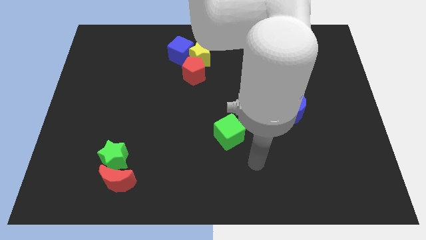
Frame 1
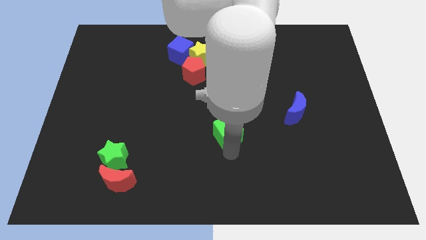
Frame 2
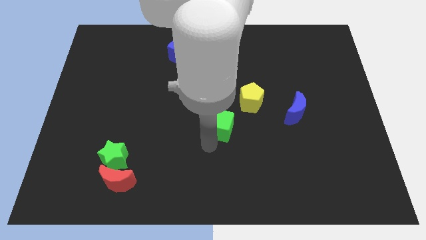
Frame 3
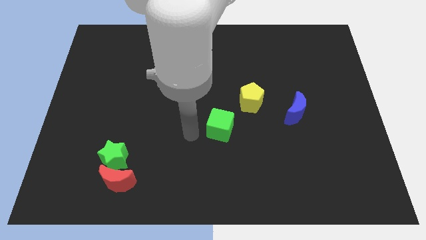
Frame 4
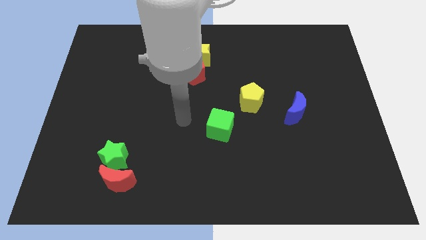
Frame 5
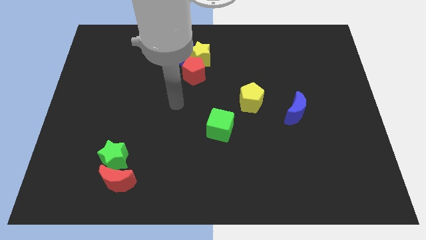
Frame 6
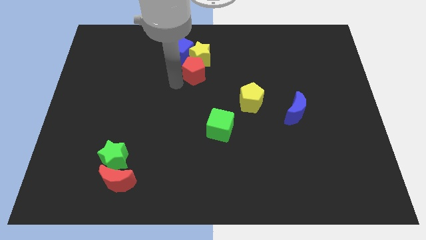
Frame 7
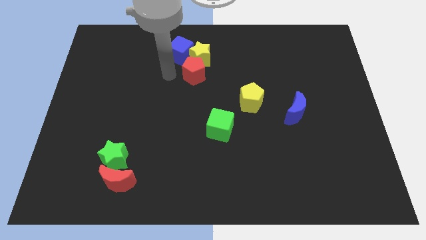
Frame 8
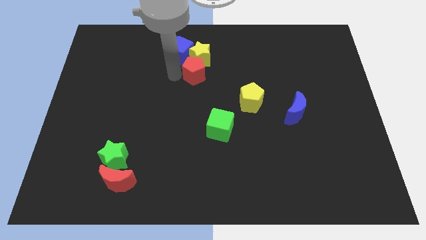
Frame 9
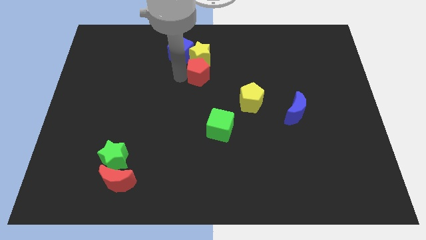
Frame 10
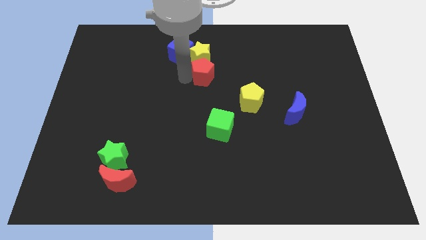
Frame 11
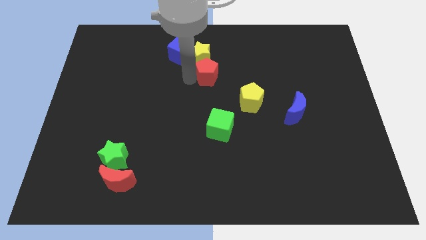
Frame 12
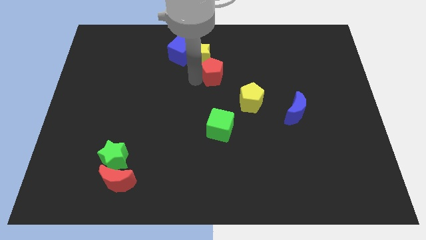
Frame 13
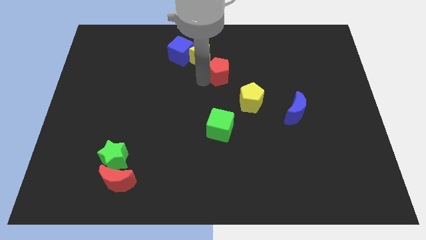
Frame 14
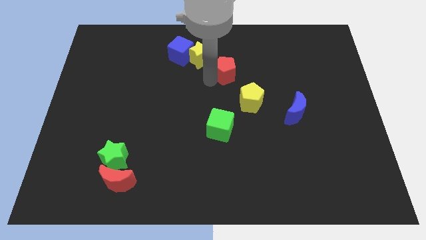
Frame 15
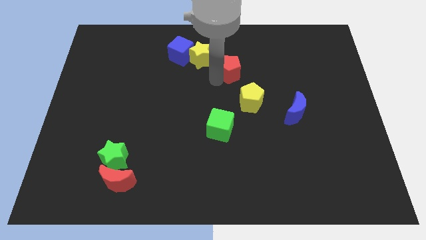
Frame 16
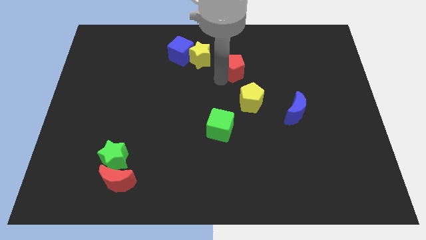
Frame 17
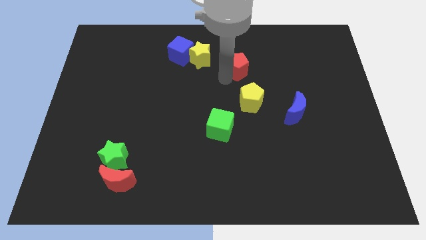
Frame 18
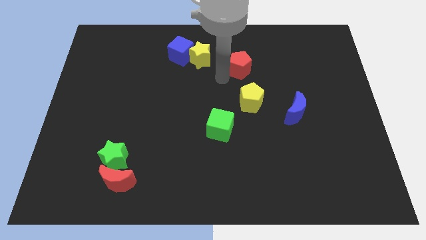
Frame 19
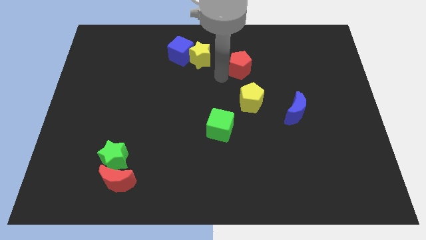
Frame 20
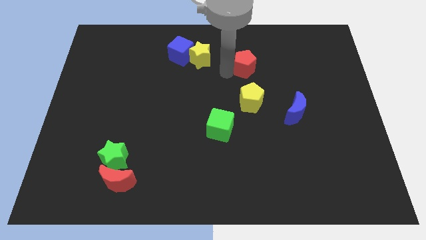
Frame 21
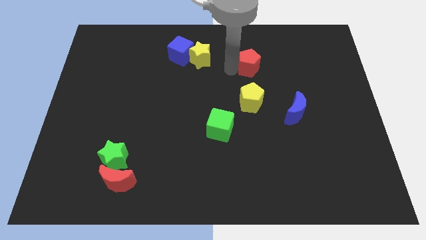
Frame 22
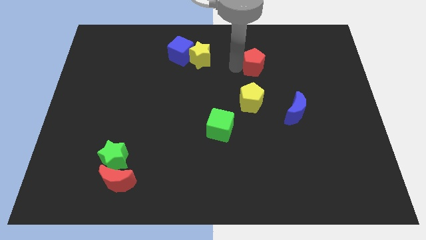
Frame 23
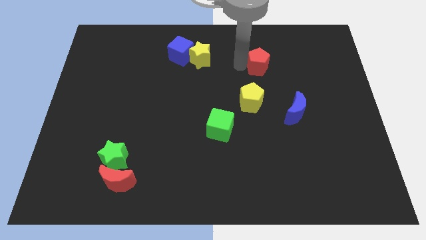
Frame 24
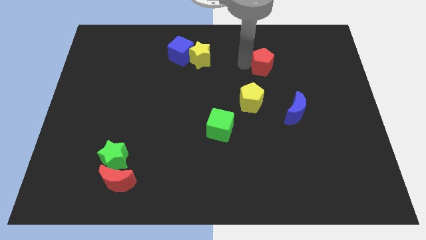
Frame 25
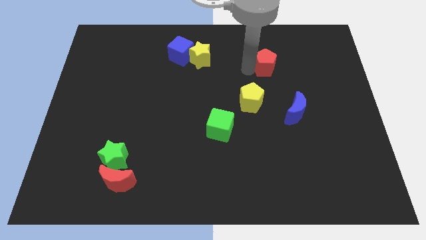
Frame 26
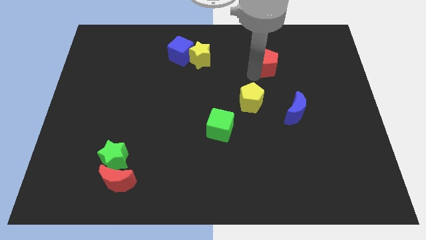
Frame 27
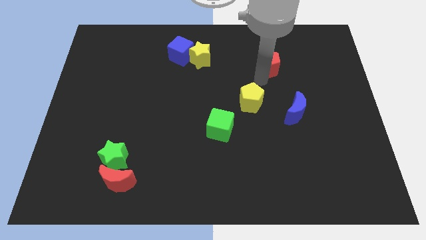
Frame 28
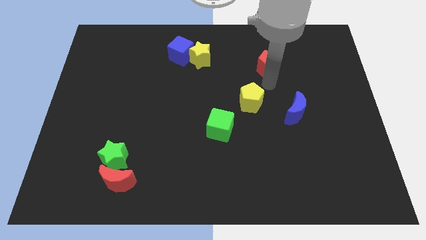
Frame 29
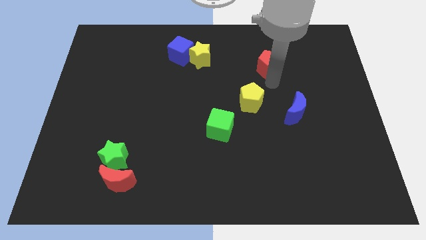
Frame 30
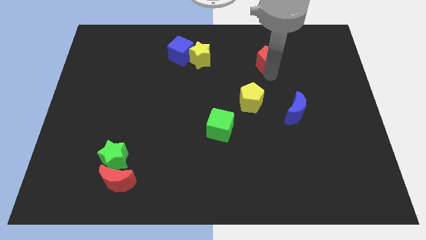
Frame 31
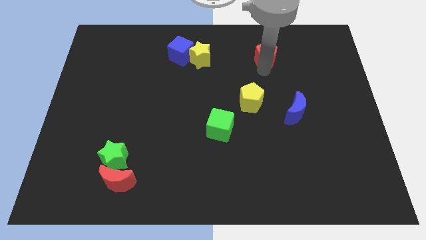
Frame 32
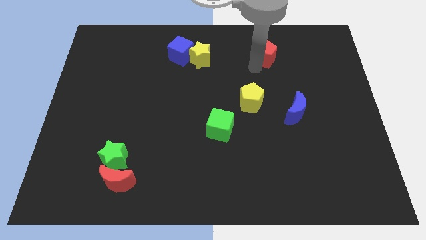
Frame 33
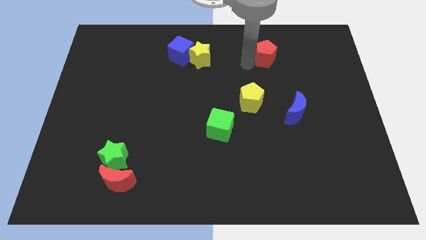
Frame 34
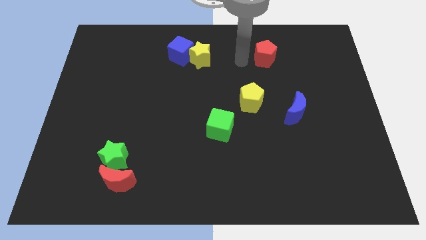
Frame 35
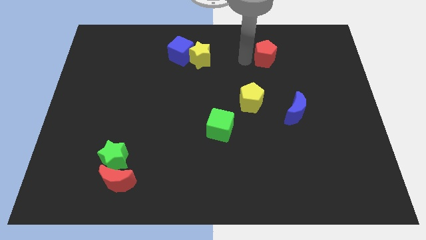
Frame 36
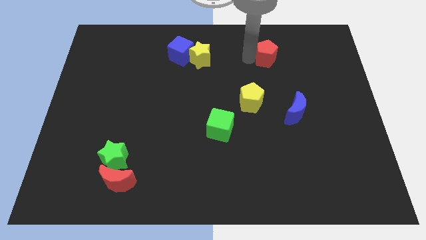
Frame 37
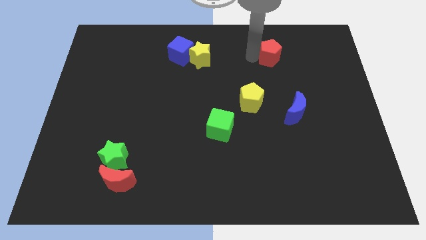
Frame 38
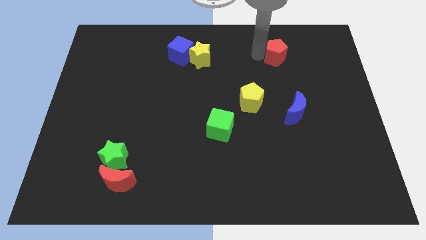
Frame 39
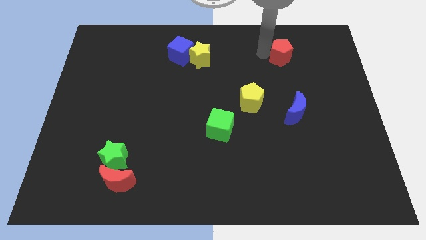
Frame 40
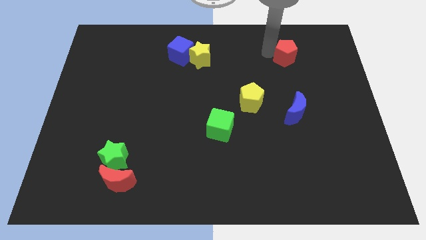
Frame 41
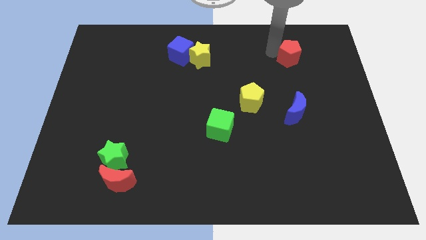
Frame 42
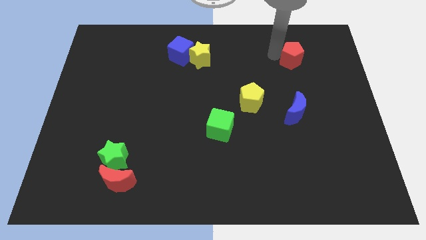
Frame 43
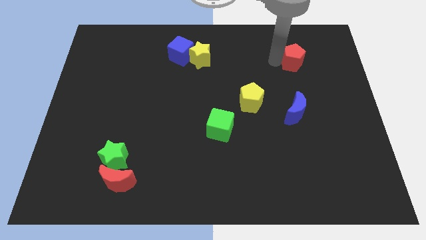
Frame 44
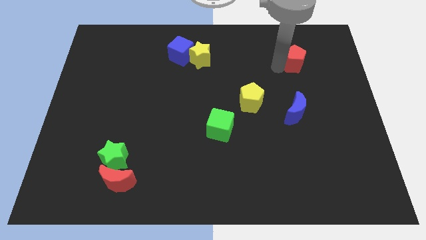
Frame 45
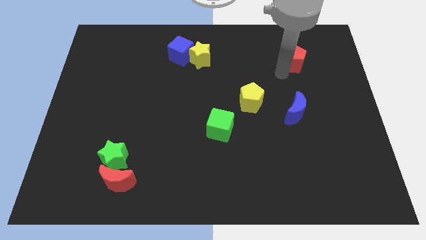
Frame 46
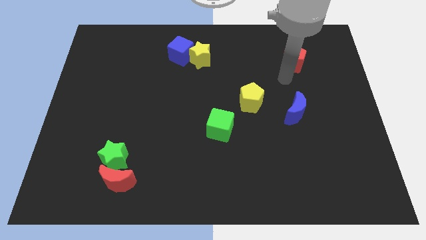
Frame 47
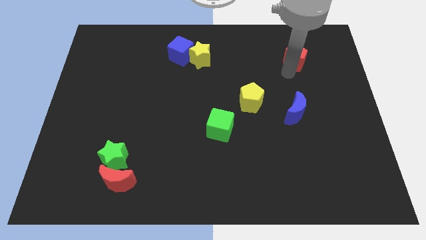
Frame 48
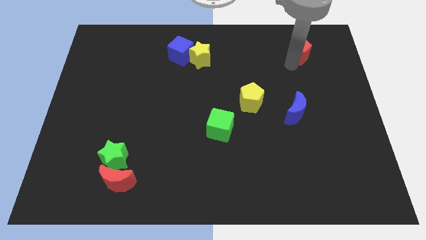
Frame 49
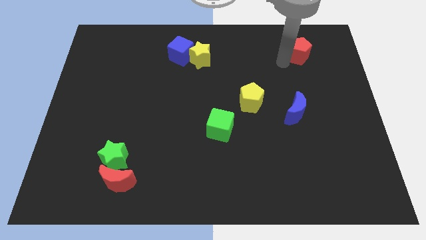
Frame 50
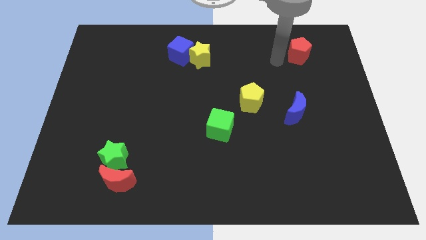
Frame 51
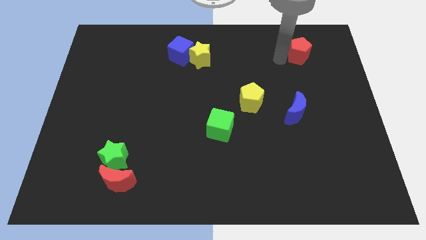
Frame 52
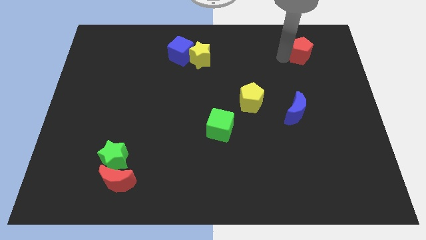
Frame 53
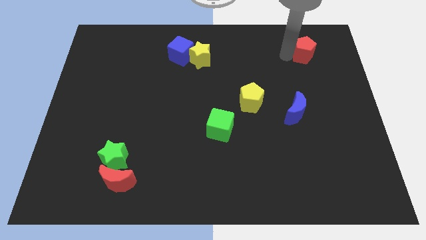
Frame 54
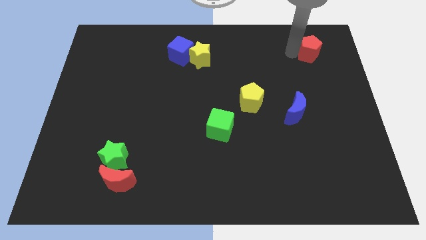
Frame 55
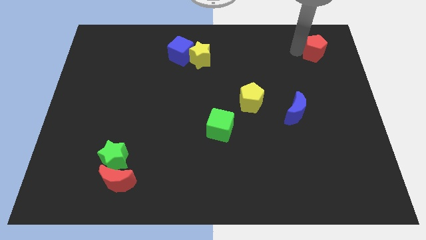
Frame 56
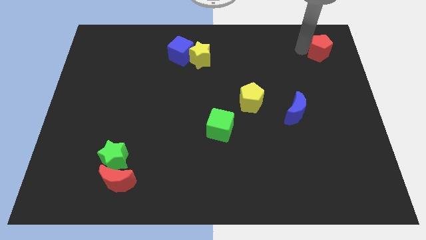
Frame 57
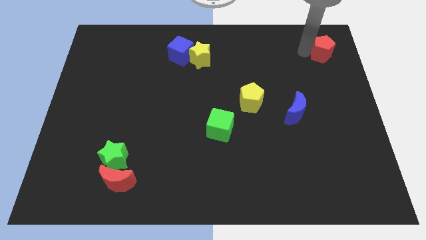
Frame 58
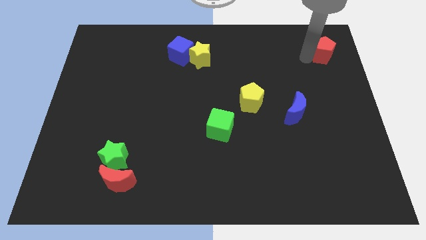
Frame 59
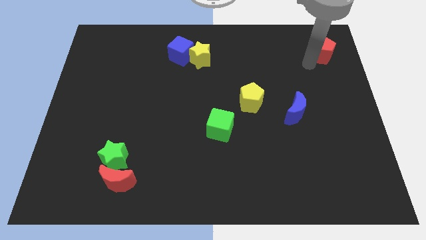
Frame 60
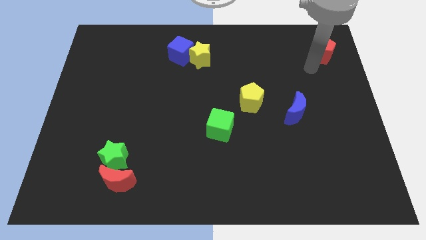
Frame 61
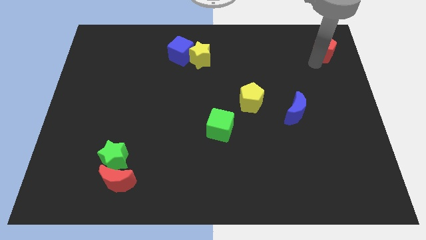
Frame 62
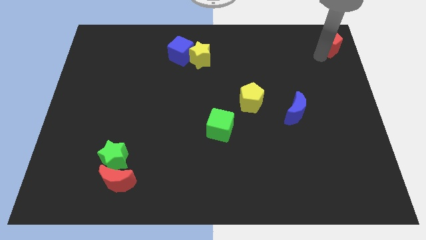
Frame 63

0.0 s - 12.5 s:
put the red pentagon to the upper right corner
